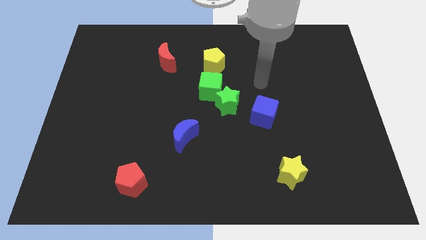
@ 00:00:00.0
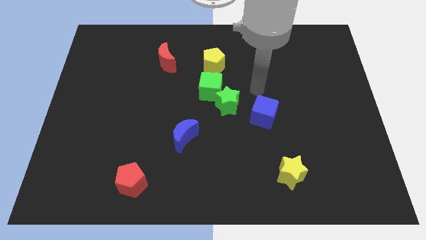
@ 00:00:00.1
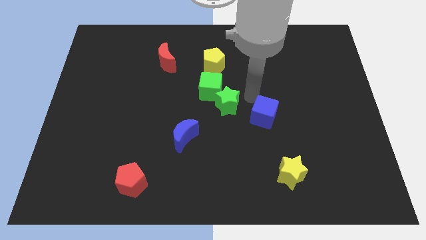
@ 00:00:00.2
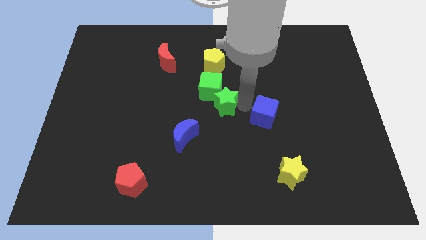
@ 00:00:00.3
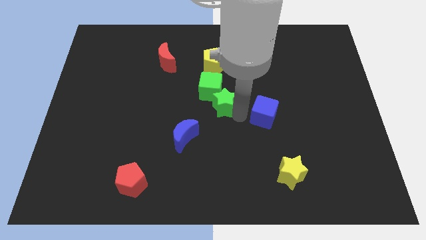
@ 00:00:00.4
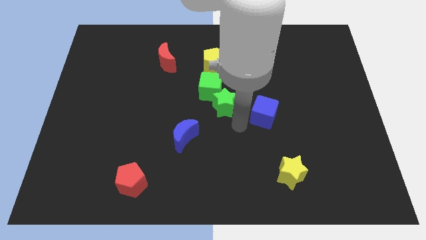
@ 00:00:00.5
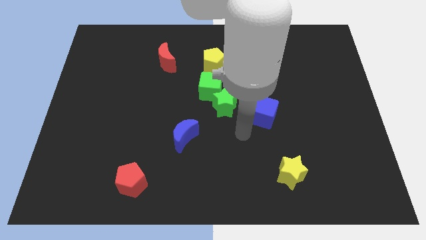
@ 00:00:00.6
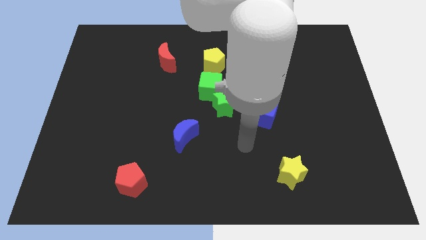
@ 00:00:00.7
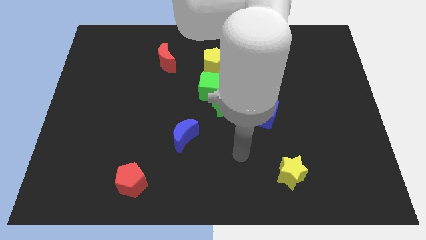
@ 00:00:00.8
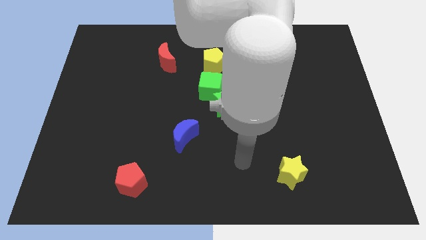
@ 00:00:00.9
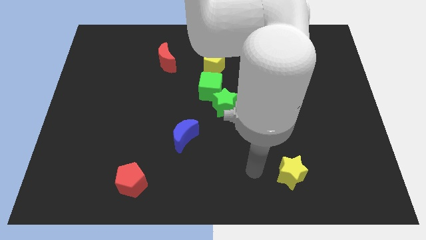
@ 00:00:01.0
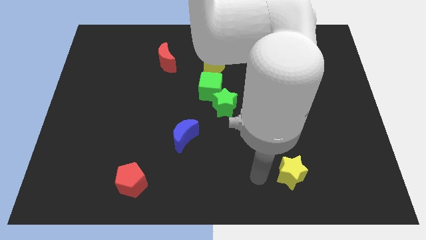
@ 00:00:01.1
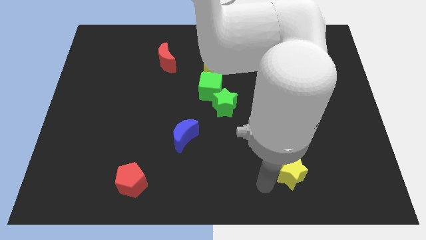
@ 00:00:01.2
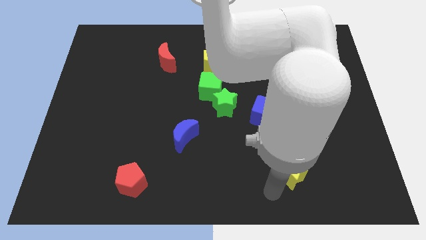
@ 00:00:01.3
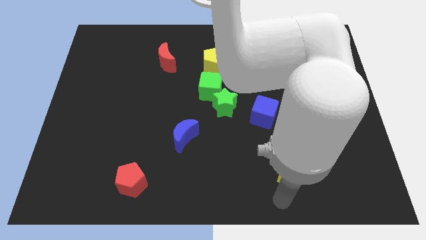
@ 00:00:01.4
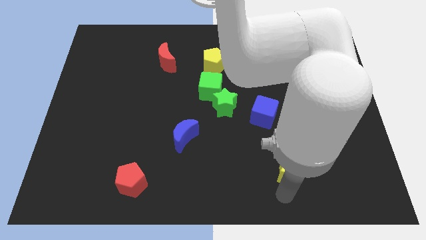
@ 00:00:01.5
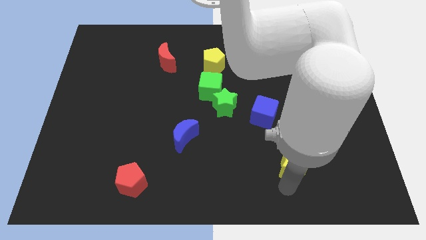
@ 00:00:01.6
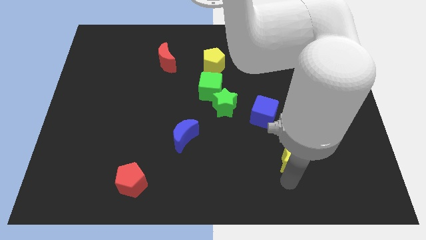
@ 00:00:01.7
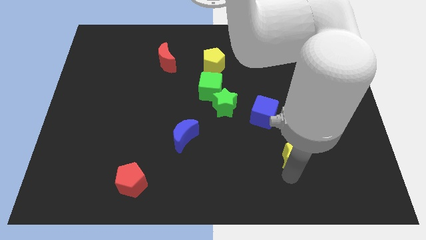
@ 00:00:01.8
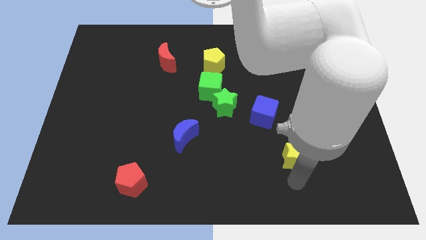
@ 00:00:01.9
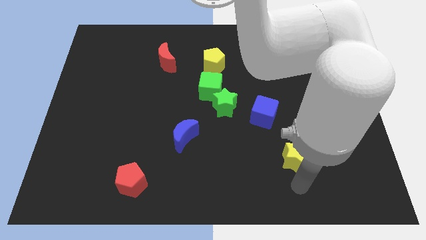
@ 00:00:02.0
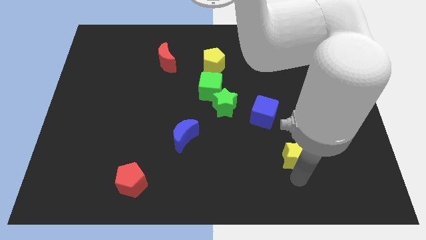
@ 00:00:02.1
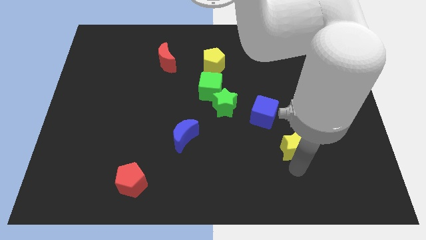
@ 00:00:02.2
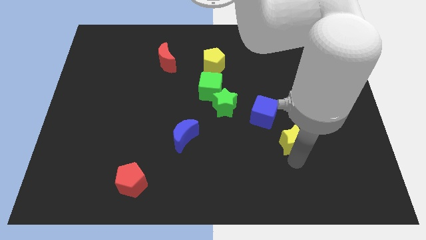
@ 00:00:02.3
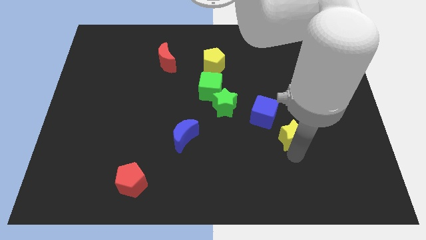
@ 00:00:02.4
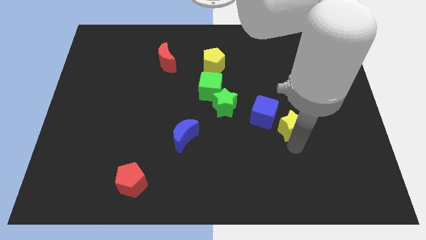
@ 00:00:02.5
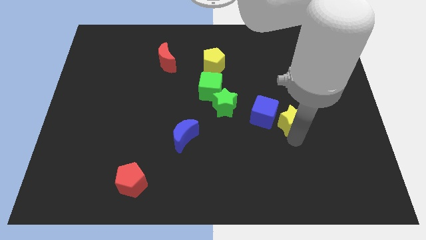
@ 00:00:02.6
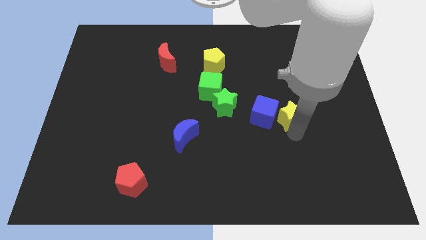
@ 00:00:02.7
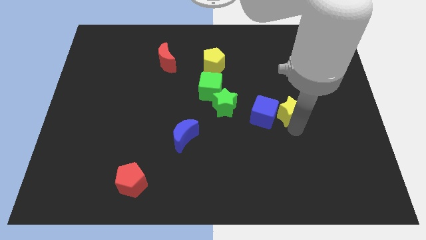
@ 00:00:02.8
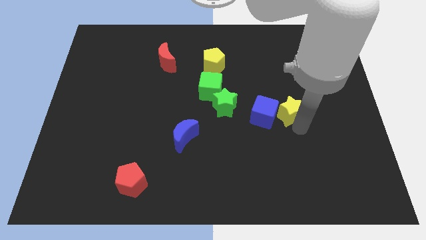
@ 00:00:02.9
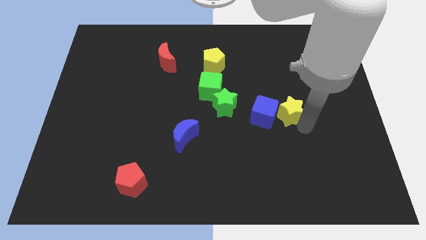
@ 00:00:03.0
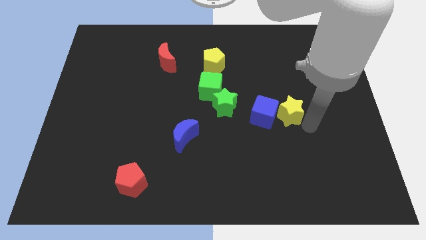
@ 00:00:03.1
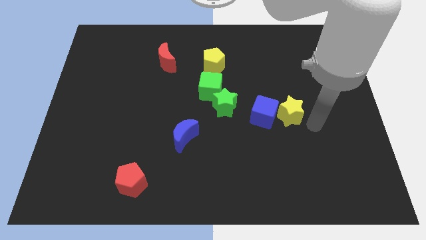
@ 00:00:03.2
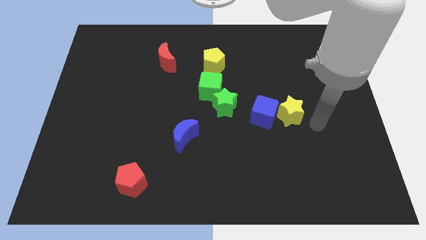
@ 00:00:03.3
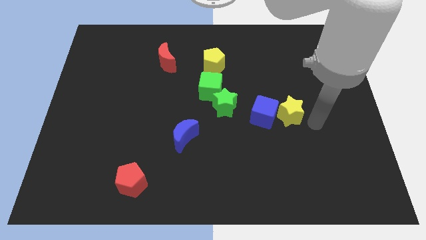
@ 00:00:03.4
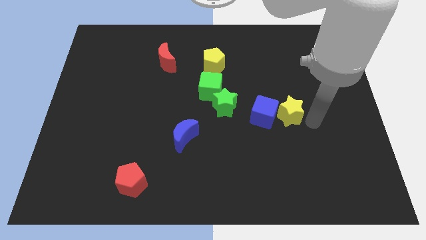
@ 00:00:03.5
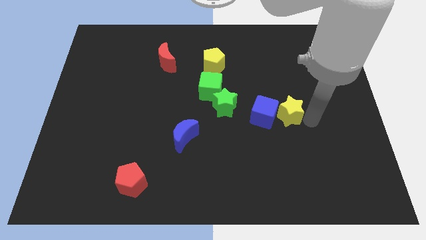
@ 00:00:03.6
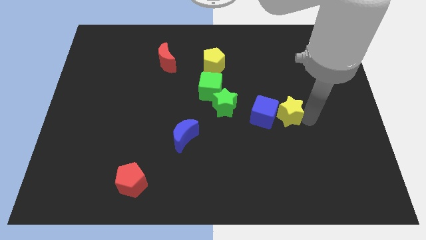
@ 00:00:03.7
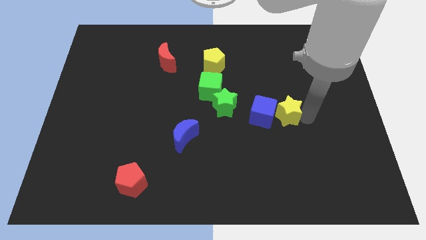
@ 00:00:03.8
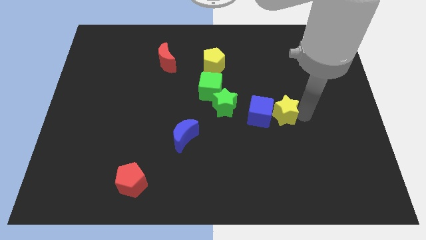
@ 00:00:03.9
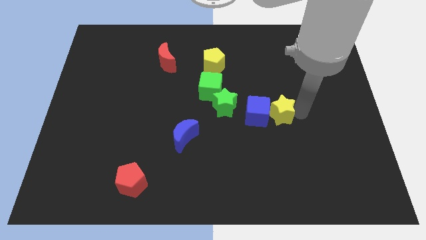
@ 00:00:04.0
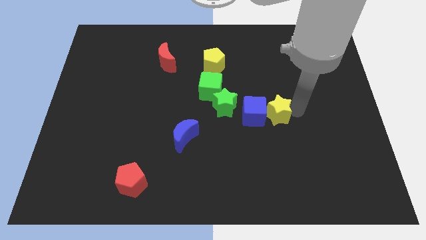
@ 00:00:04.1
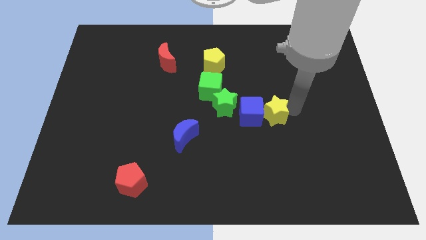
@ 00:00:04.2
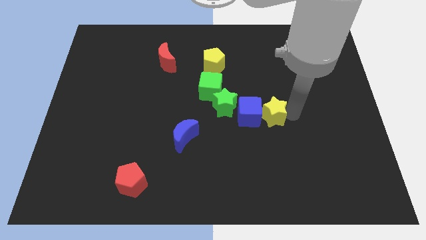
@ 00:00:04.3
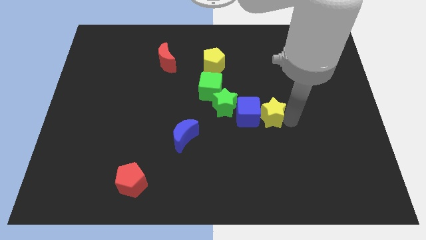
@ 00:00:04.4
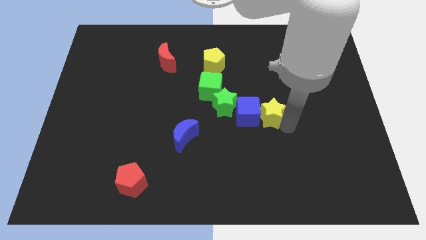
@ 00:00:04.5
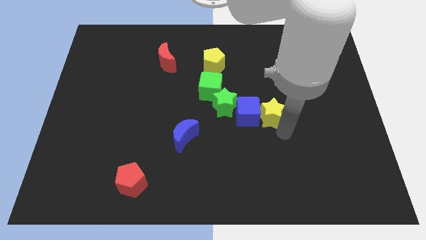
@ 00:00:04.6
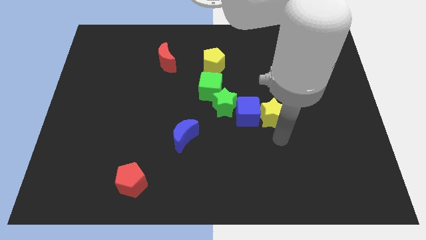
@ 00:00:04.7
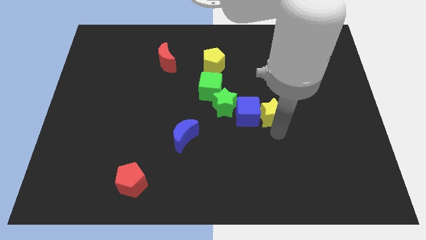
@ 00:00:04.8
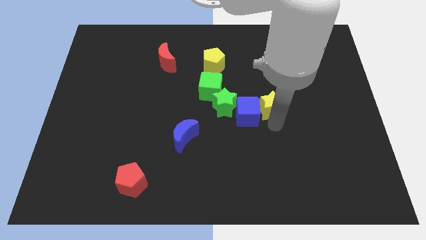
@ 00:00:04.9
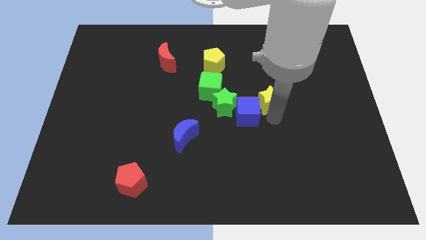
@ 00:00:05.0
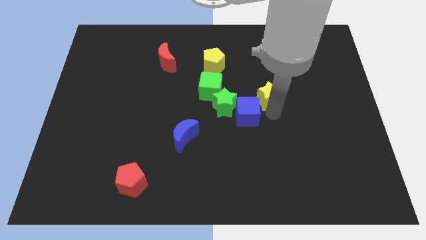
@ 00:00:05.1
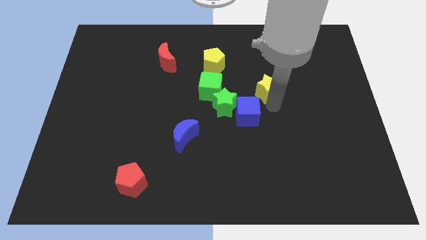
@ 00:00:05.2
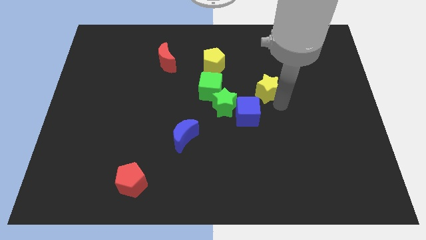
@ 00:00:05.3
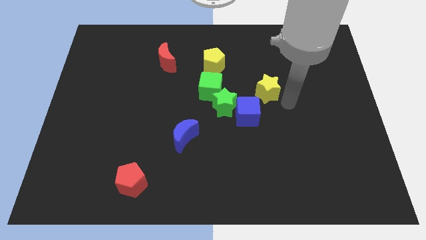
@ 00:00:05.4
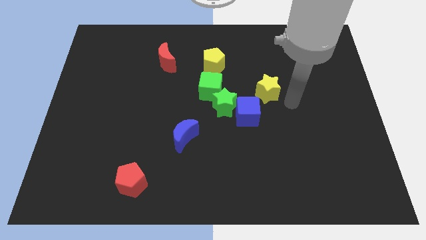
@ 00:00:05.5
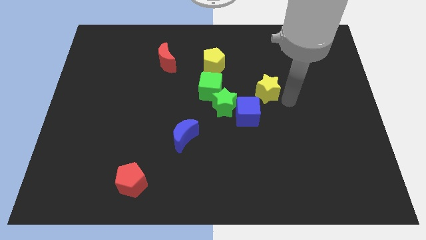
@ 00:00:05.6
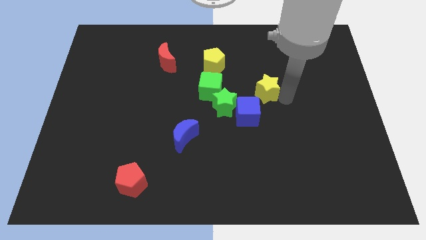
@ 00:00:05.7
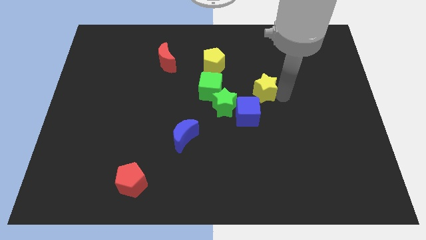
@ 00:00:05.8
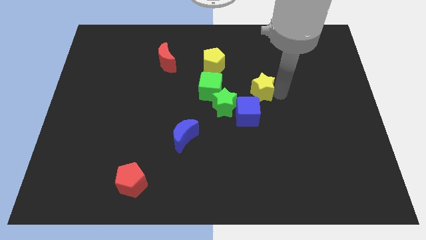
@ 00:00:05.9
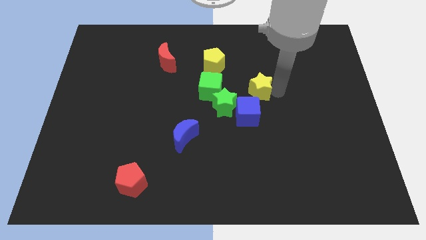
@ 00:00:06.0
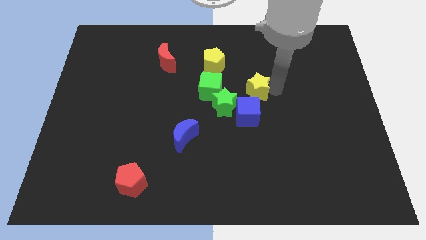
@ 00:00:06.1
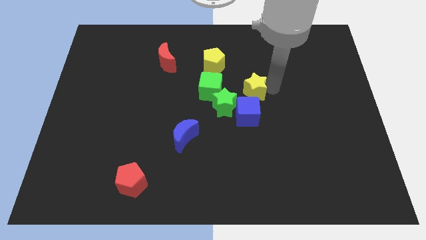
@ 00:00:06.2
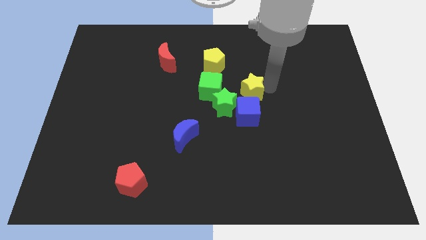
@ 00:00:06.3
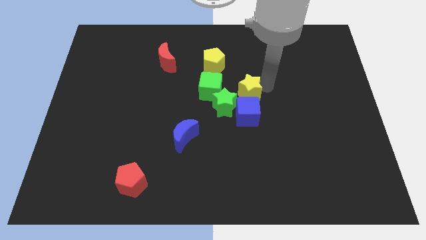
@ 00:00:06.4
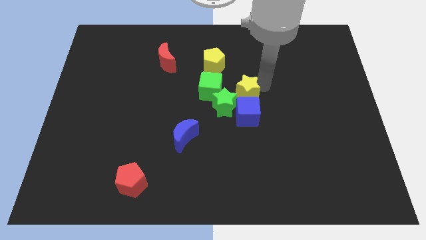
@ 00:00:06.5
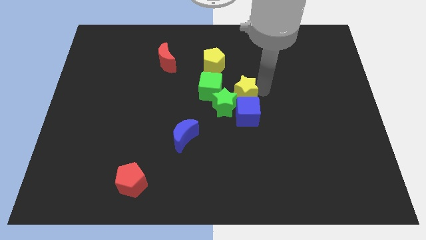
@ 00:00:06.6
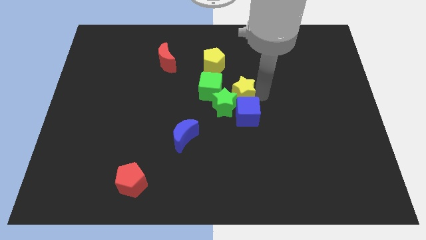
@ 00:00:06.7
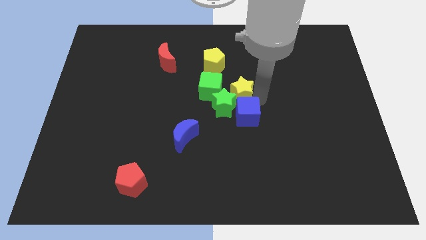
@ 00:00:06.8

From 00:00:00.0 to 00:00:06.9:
slide the yellow star to the top of the green star

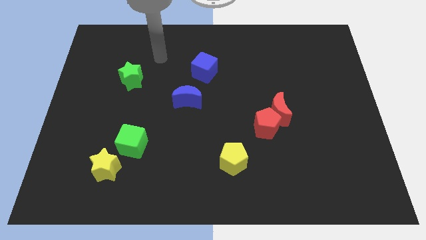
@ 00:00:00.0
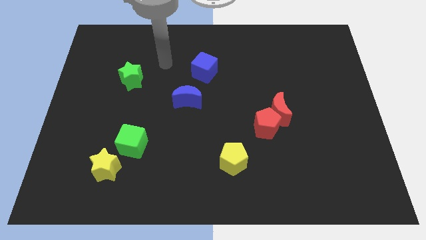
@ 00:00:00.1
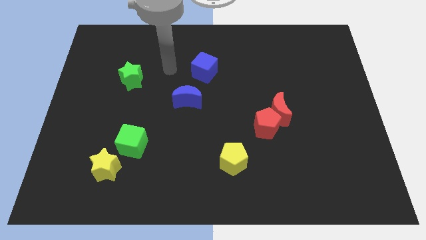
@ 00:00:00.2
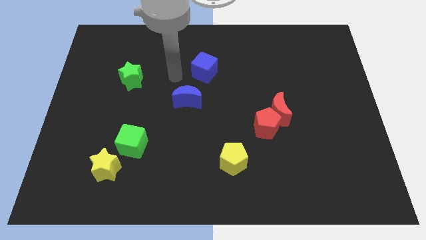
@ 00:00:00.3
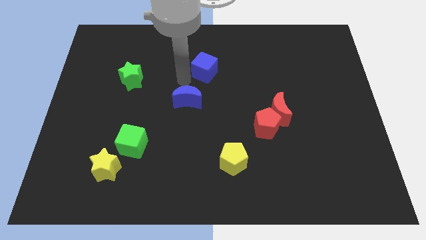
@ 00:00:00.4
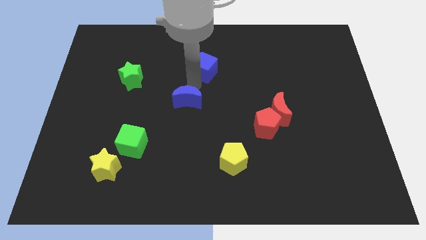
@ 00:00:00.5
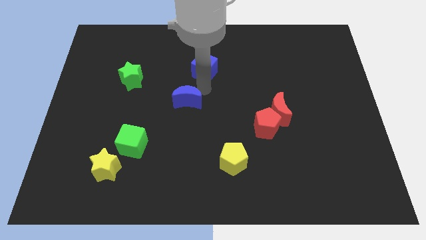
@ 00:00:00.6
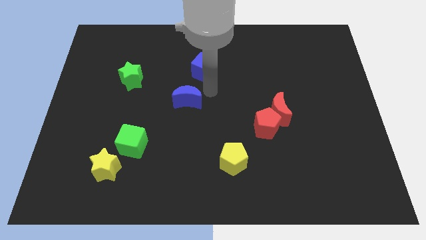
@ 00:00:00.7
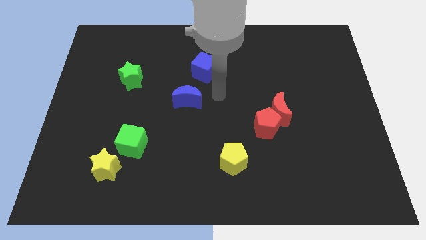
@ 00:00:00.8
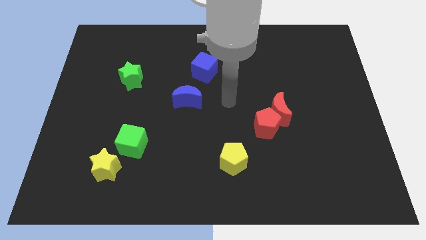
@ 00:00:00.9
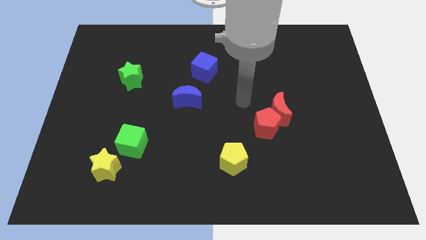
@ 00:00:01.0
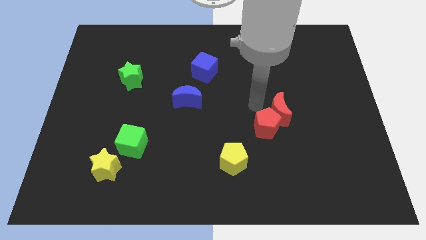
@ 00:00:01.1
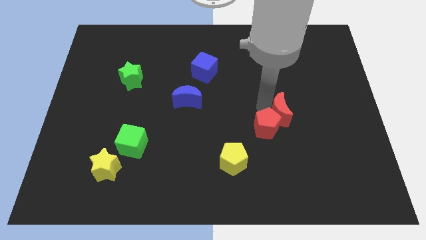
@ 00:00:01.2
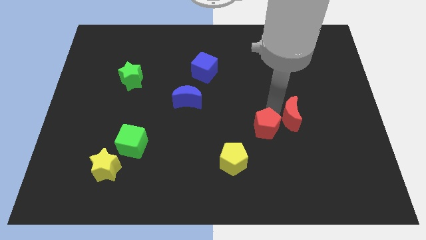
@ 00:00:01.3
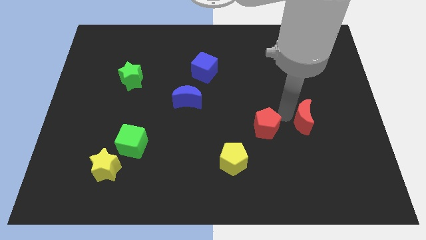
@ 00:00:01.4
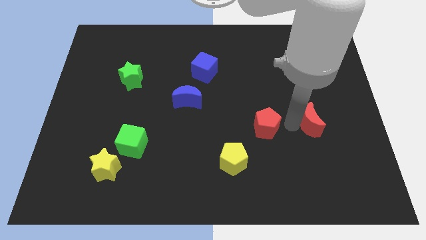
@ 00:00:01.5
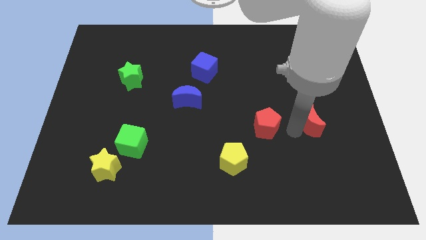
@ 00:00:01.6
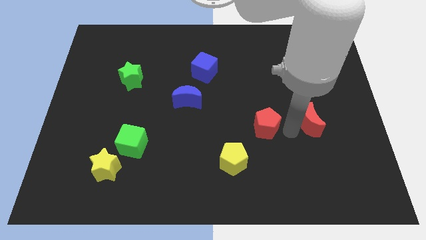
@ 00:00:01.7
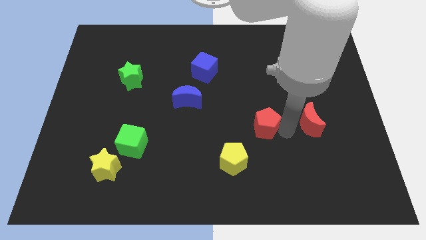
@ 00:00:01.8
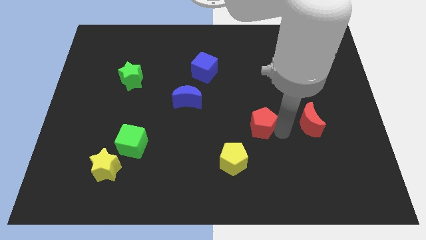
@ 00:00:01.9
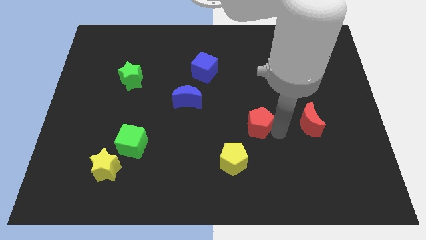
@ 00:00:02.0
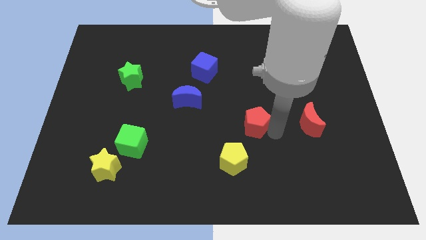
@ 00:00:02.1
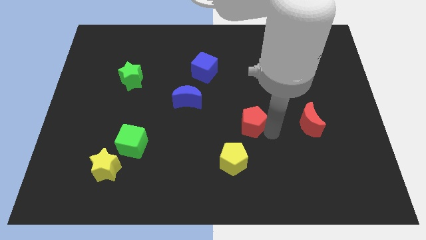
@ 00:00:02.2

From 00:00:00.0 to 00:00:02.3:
push the red pentagon to the top of the yellow pentagon
